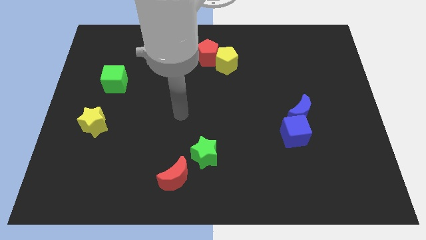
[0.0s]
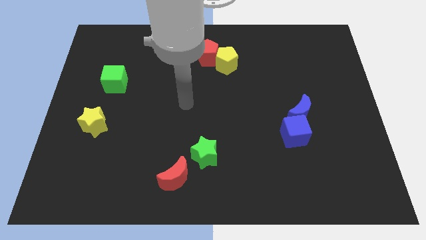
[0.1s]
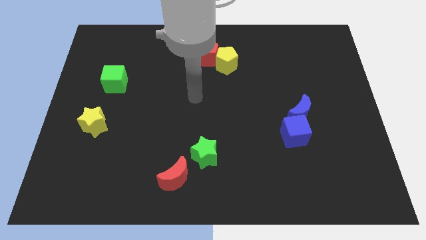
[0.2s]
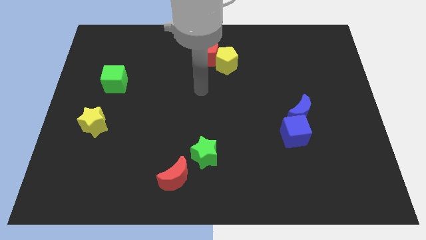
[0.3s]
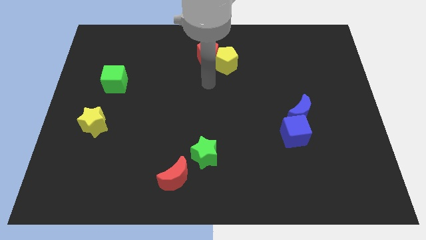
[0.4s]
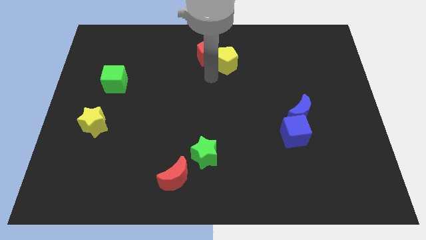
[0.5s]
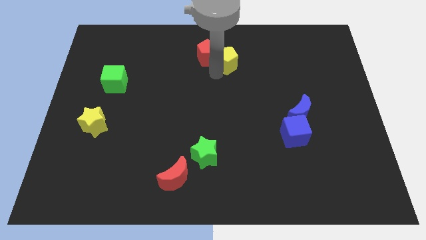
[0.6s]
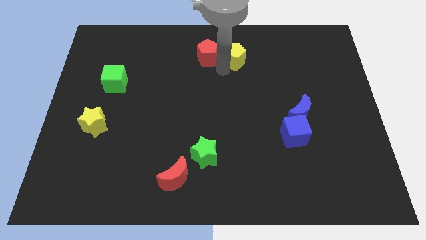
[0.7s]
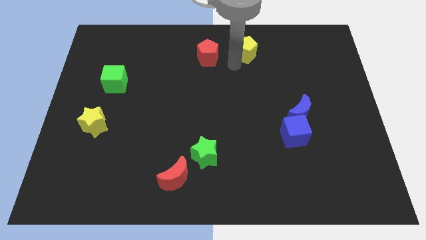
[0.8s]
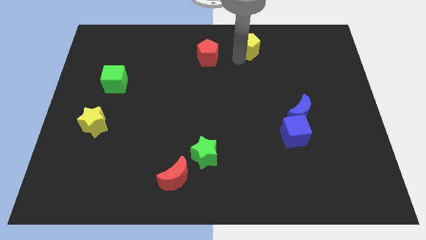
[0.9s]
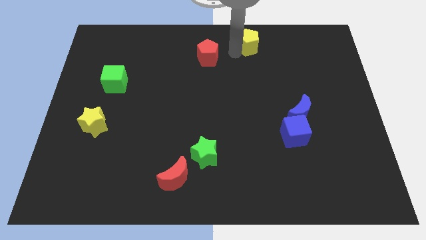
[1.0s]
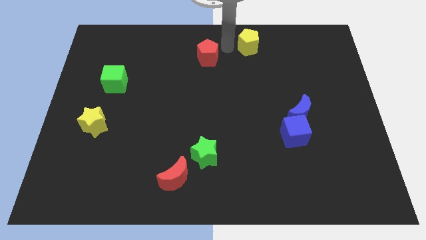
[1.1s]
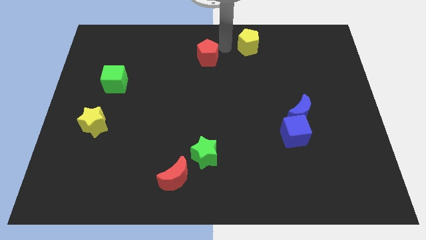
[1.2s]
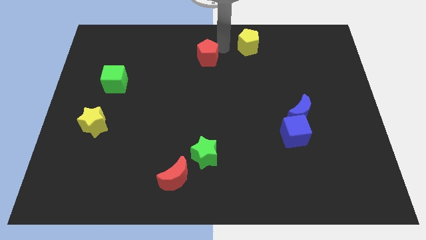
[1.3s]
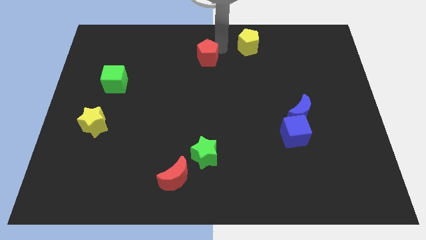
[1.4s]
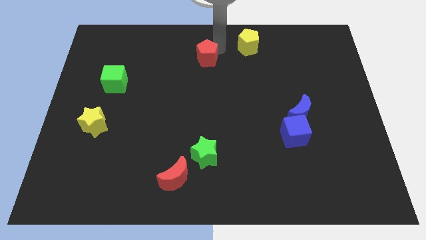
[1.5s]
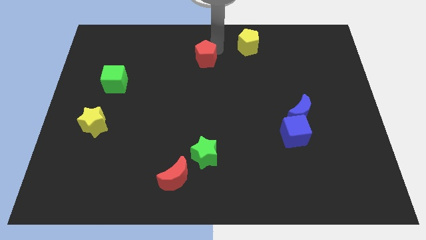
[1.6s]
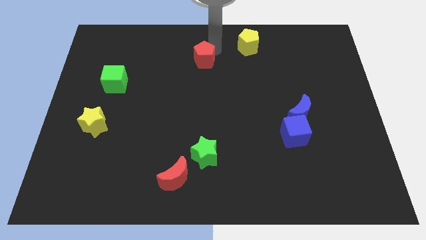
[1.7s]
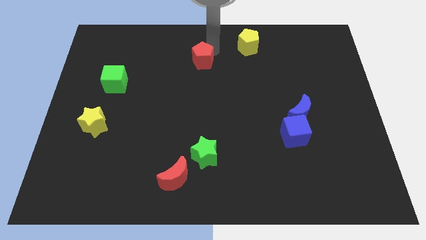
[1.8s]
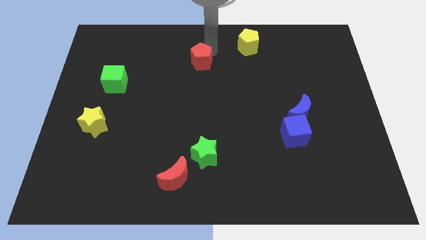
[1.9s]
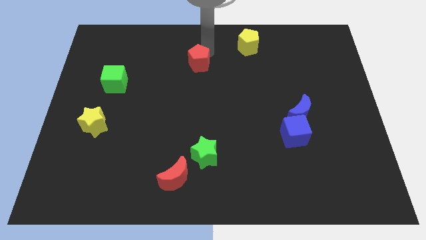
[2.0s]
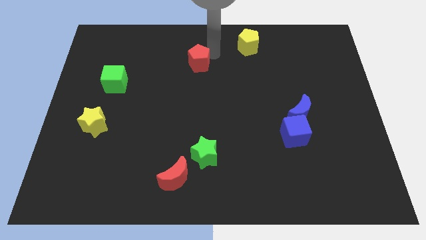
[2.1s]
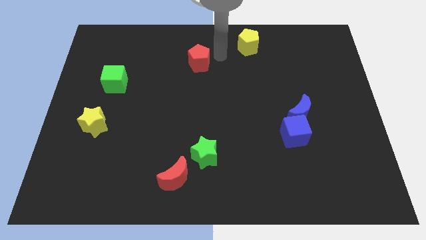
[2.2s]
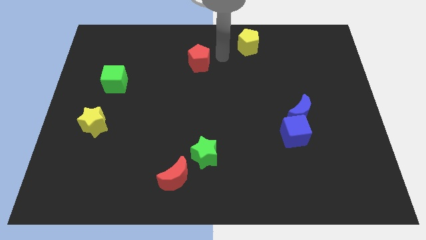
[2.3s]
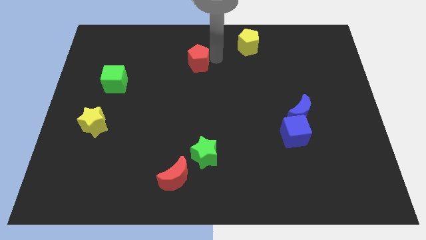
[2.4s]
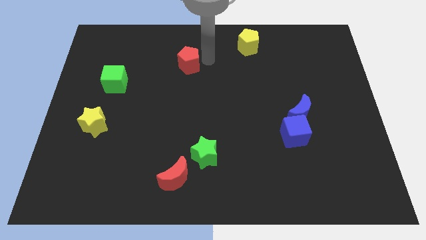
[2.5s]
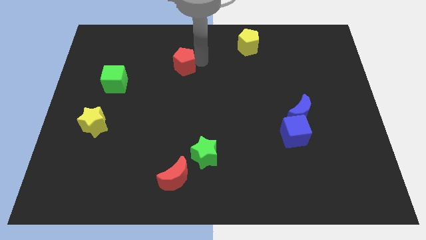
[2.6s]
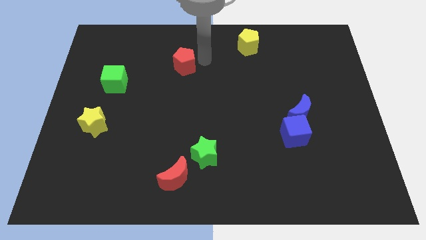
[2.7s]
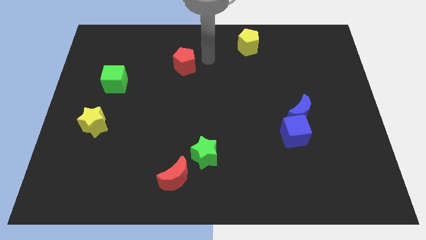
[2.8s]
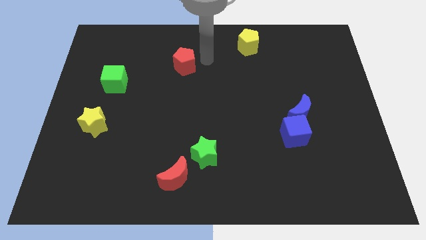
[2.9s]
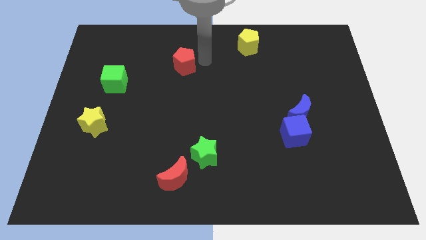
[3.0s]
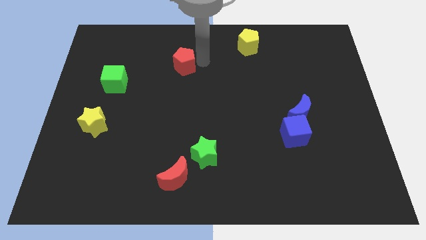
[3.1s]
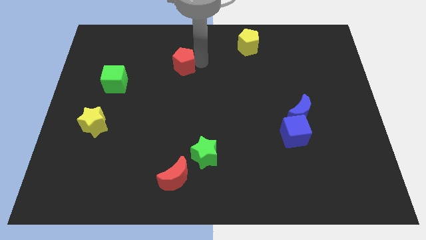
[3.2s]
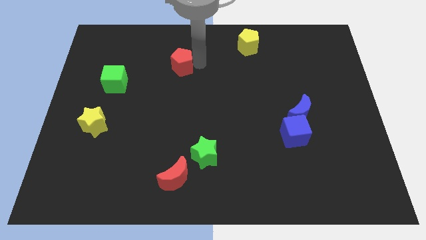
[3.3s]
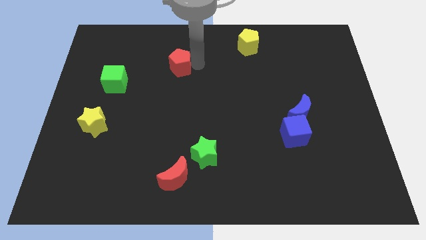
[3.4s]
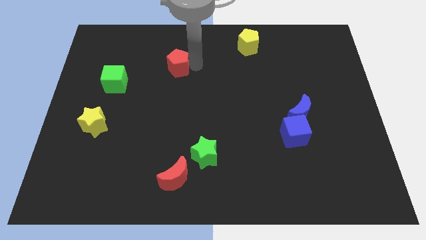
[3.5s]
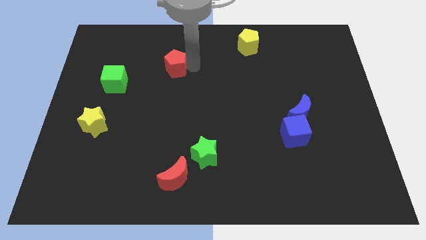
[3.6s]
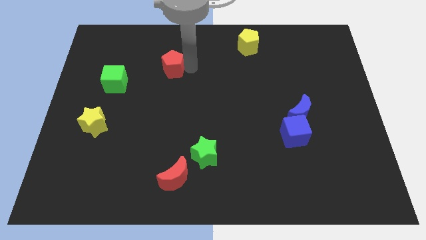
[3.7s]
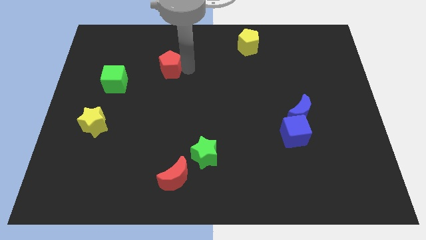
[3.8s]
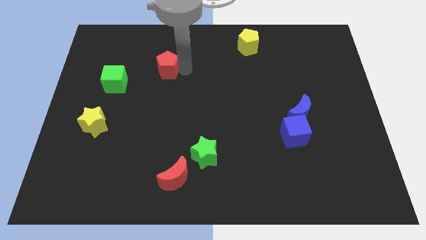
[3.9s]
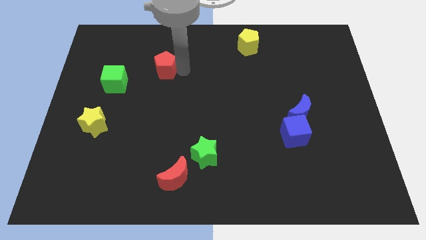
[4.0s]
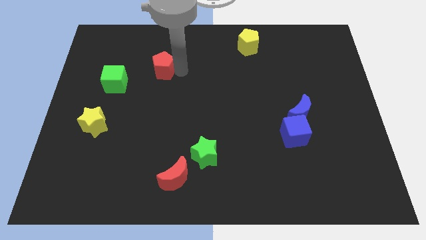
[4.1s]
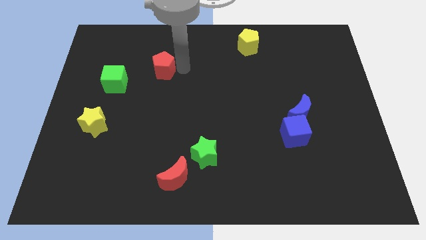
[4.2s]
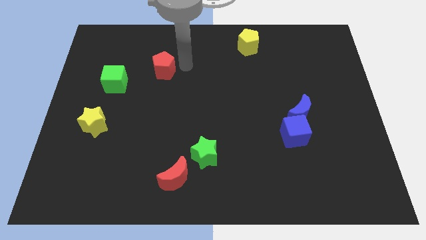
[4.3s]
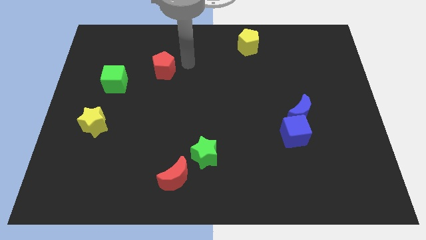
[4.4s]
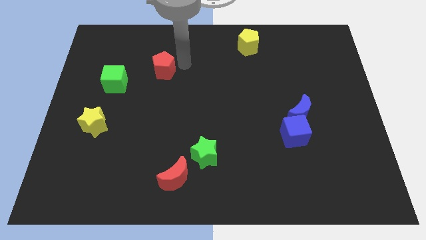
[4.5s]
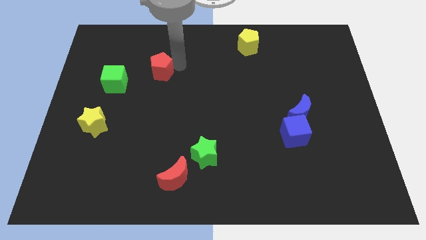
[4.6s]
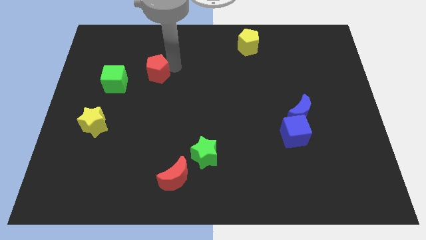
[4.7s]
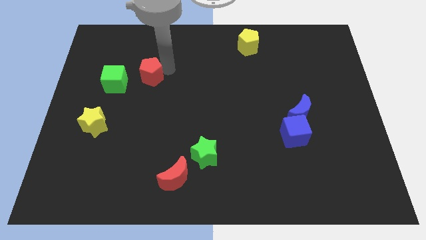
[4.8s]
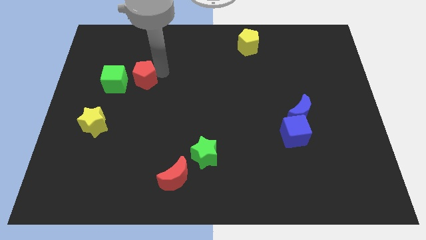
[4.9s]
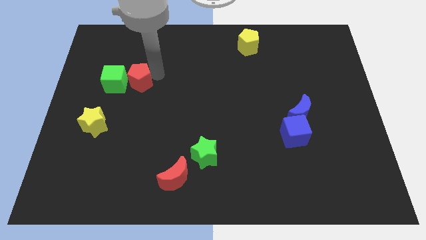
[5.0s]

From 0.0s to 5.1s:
put the red pentagon next to the green cube

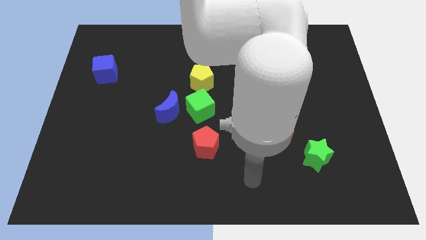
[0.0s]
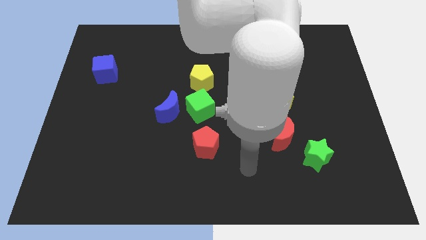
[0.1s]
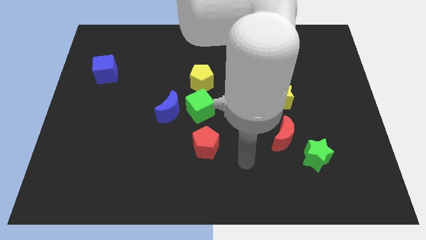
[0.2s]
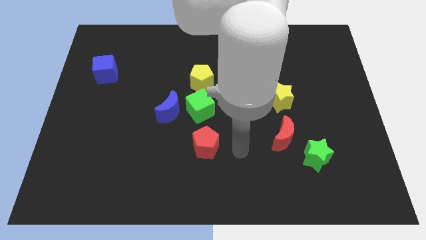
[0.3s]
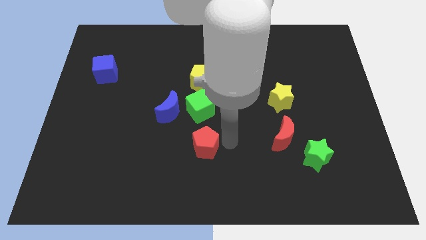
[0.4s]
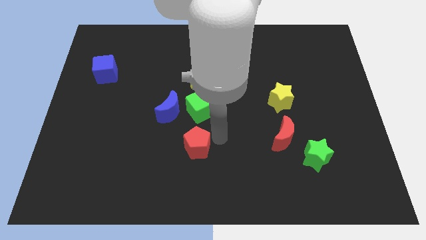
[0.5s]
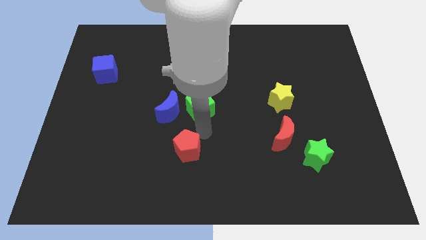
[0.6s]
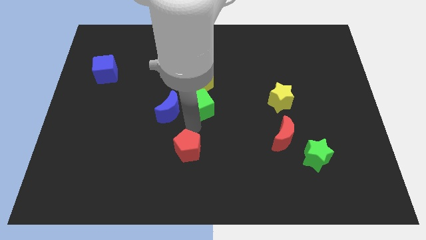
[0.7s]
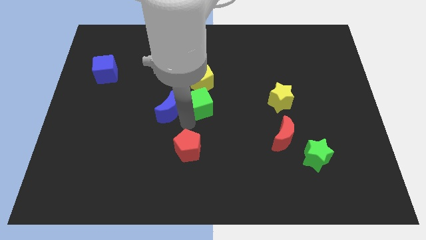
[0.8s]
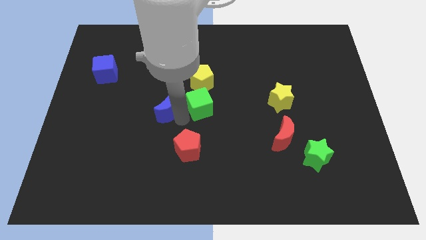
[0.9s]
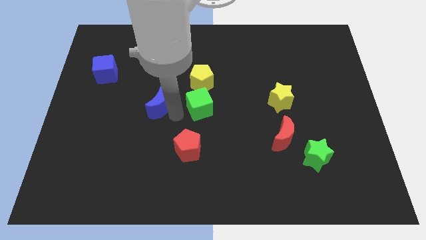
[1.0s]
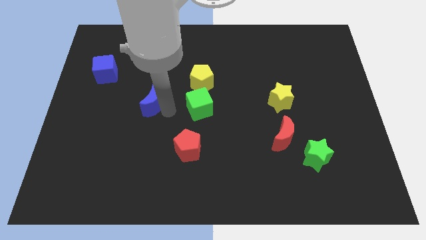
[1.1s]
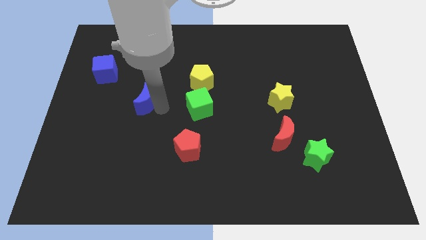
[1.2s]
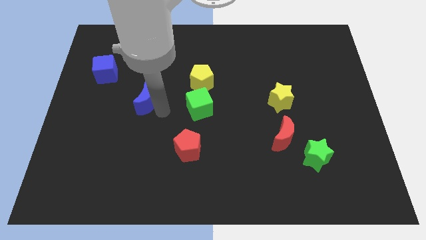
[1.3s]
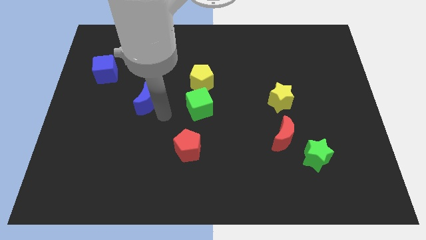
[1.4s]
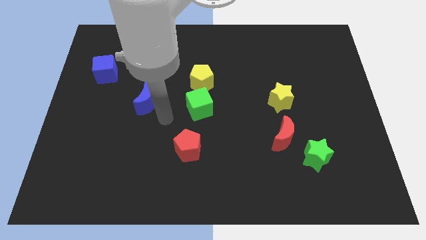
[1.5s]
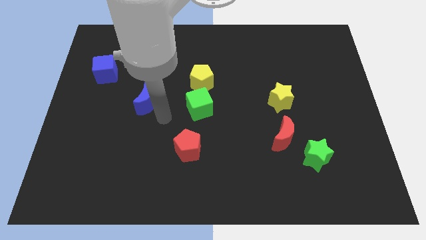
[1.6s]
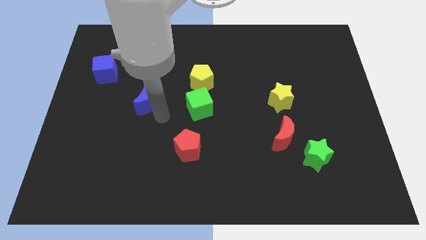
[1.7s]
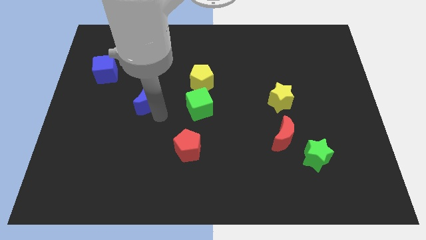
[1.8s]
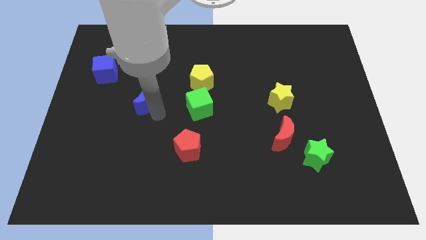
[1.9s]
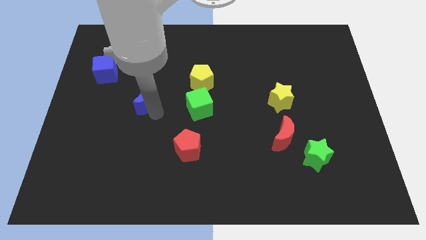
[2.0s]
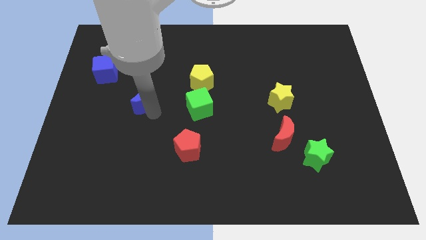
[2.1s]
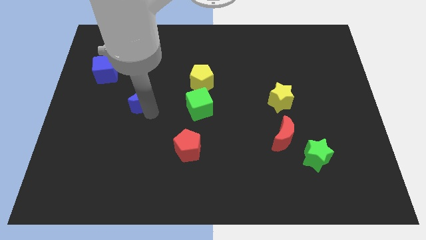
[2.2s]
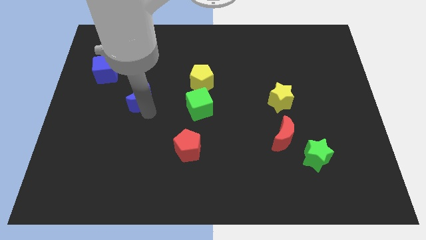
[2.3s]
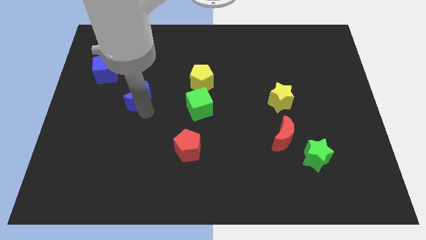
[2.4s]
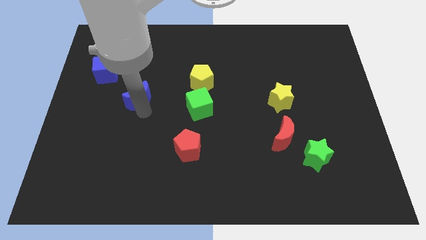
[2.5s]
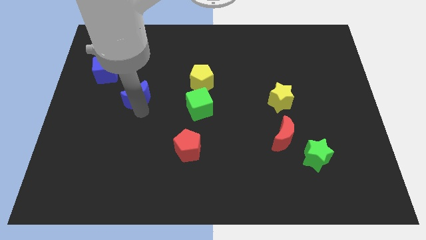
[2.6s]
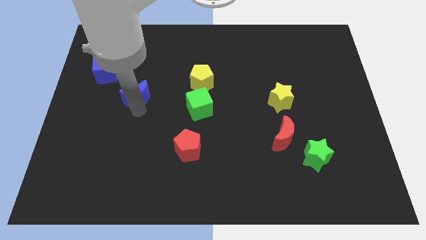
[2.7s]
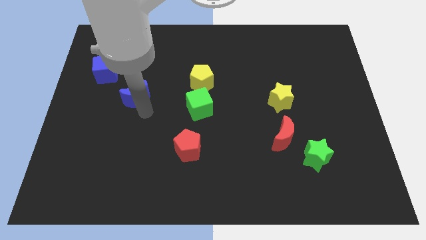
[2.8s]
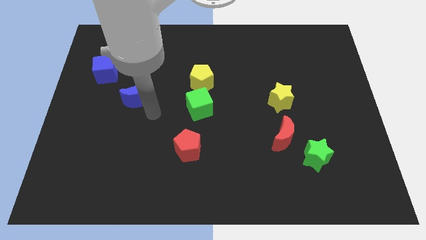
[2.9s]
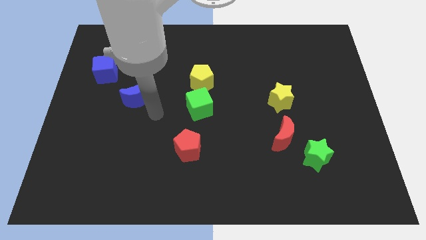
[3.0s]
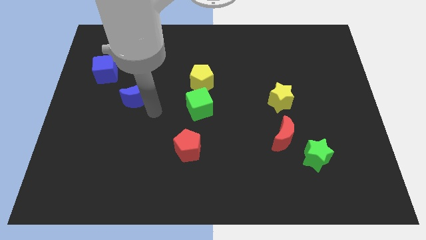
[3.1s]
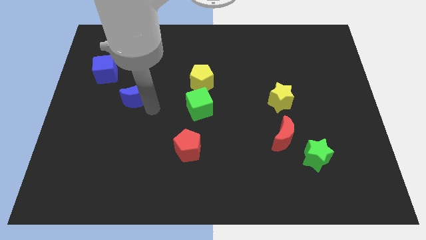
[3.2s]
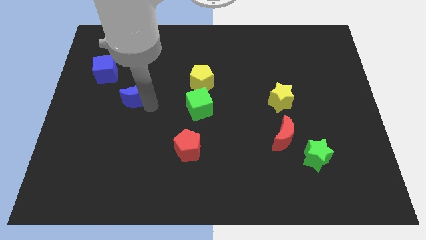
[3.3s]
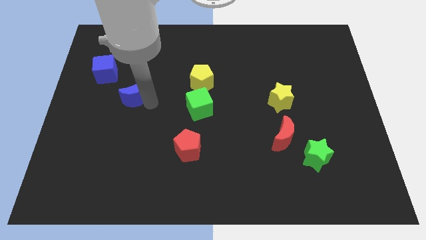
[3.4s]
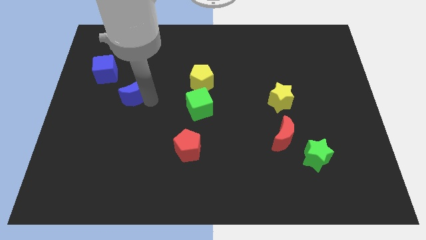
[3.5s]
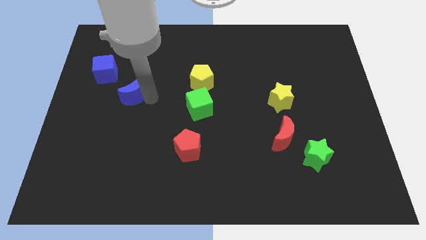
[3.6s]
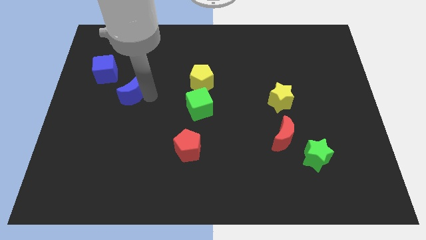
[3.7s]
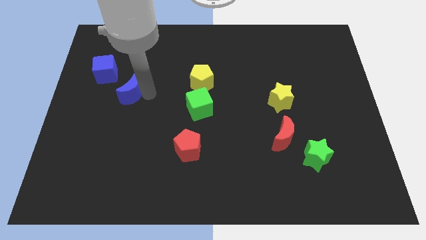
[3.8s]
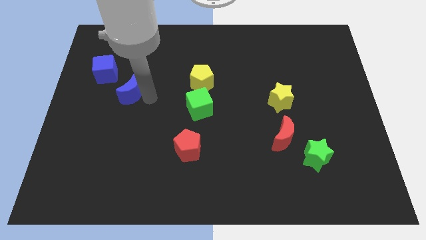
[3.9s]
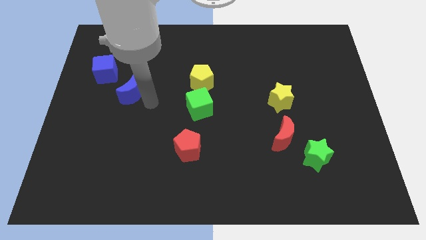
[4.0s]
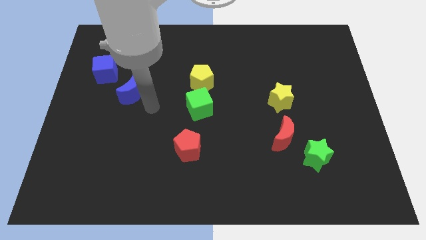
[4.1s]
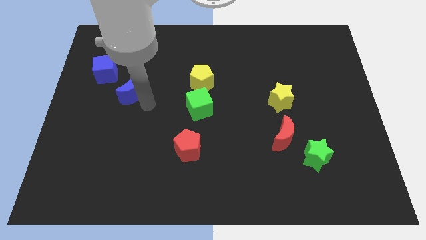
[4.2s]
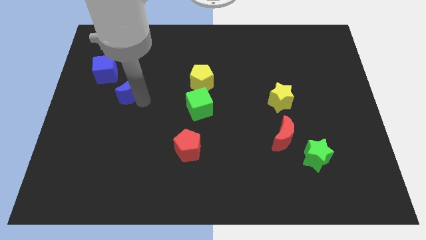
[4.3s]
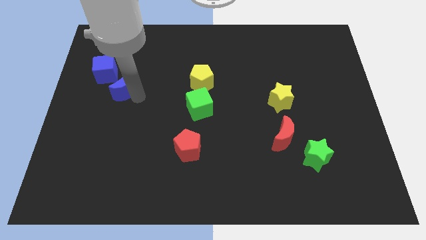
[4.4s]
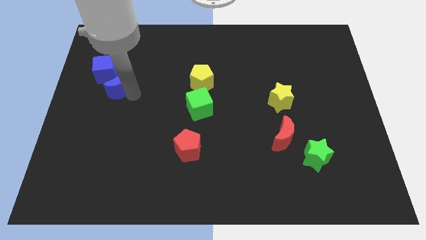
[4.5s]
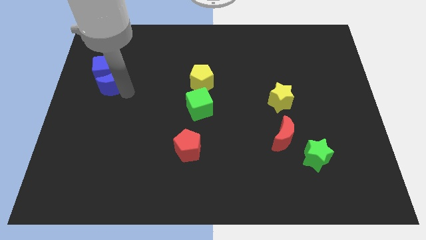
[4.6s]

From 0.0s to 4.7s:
move the blue moon close to the blue cube
